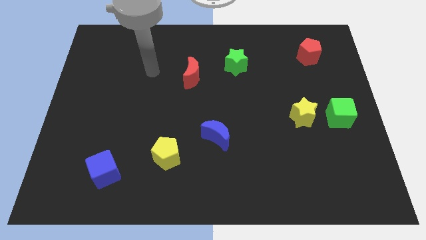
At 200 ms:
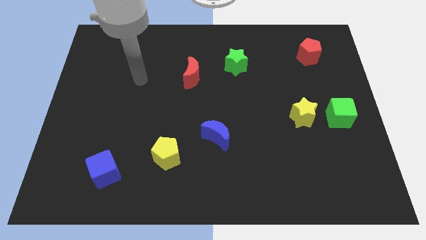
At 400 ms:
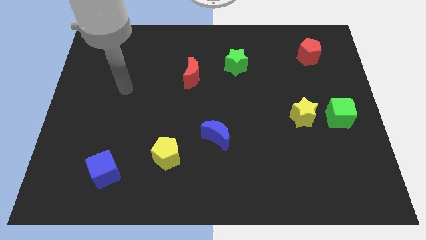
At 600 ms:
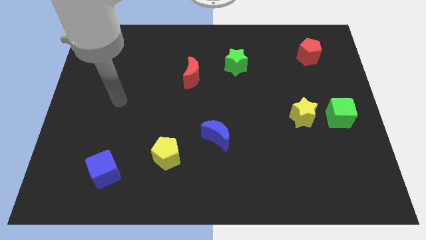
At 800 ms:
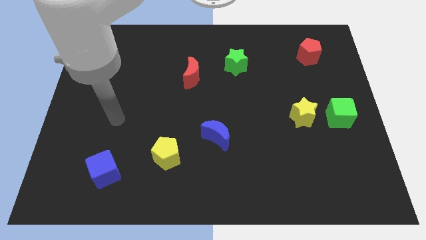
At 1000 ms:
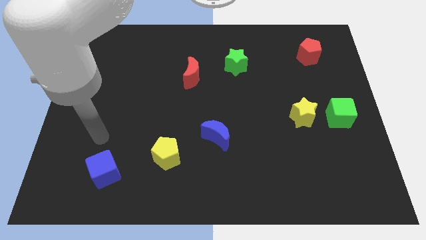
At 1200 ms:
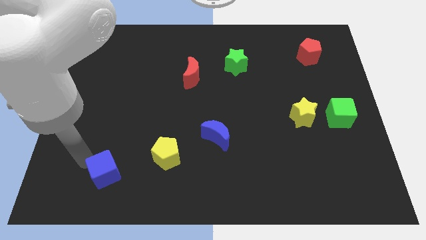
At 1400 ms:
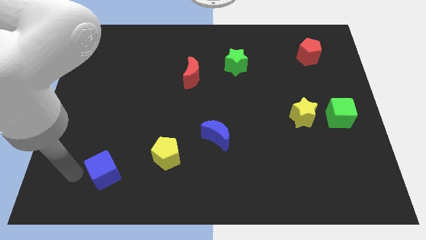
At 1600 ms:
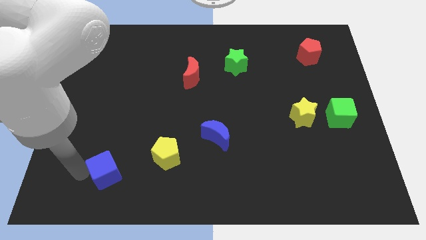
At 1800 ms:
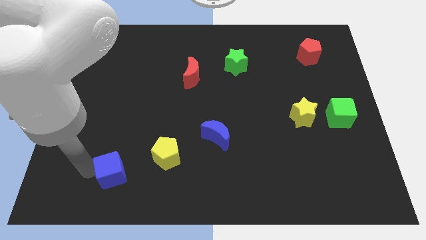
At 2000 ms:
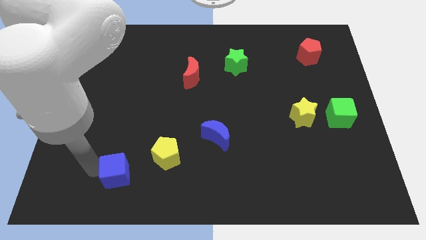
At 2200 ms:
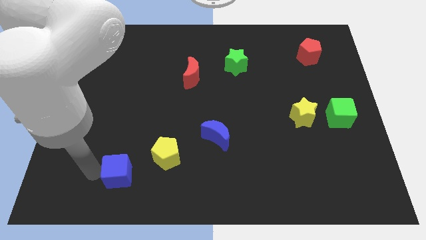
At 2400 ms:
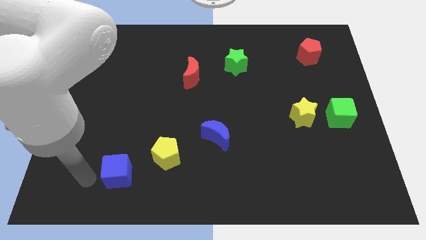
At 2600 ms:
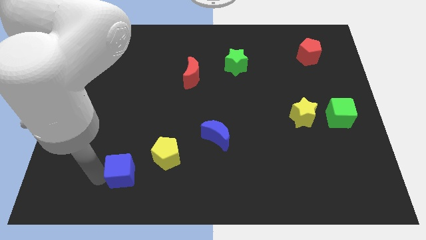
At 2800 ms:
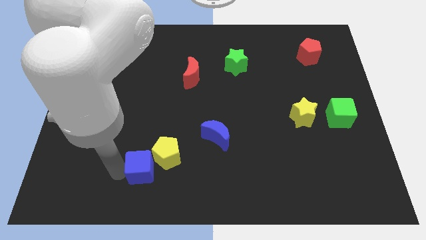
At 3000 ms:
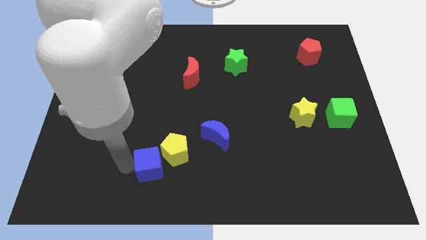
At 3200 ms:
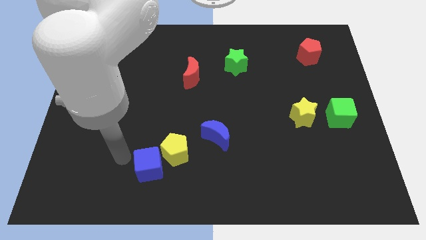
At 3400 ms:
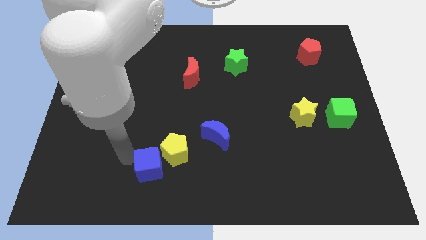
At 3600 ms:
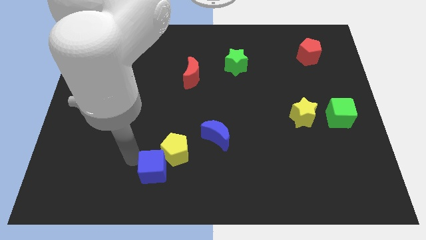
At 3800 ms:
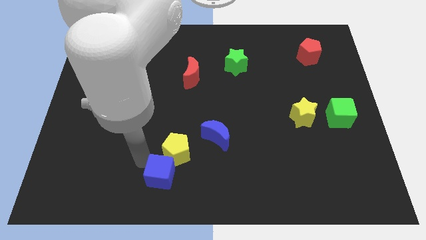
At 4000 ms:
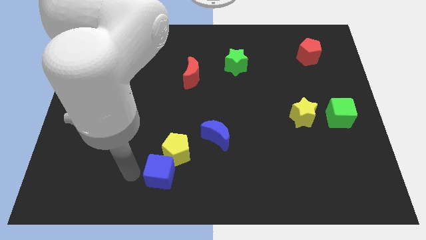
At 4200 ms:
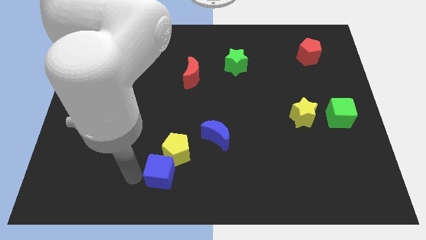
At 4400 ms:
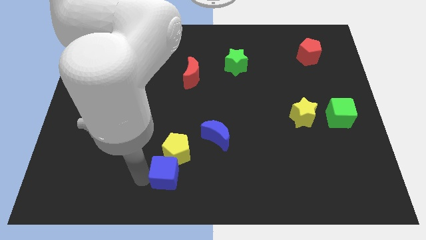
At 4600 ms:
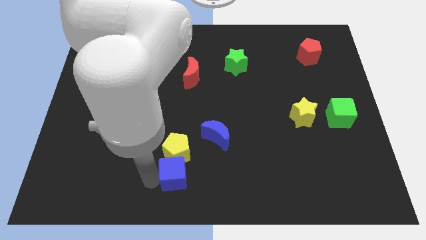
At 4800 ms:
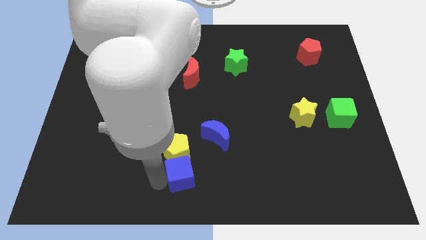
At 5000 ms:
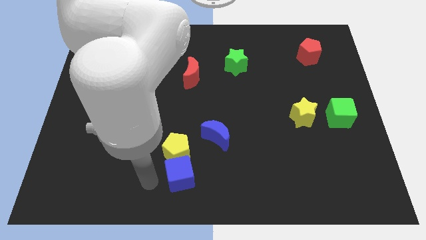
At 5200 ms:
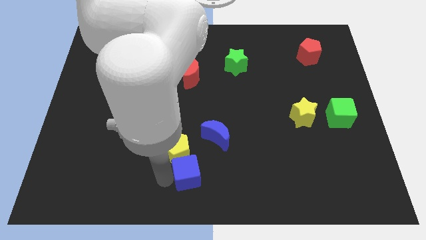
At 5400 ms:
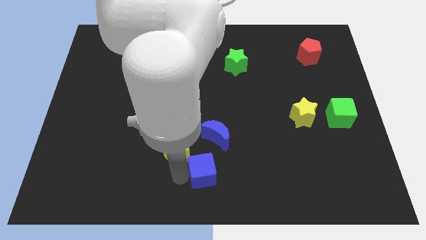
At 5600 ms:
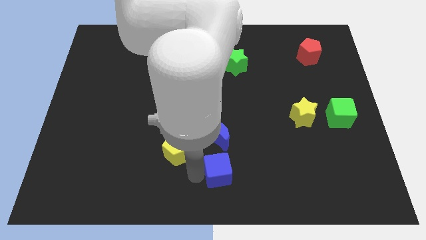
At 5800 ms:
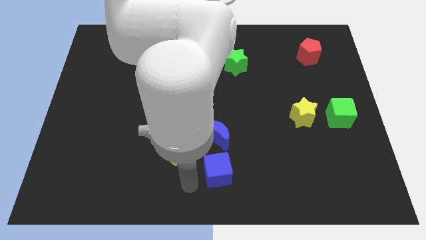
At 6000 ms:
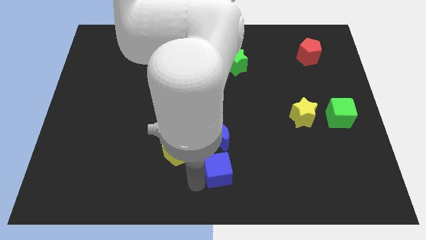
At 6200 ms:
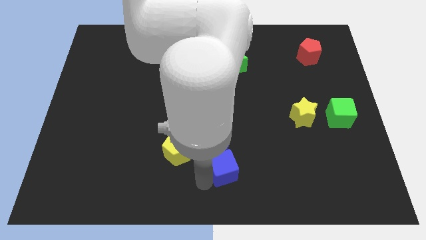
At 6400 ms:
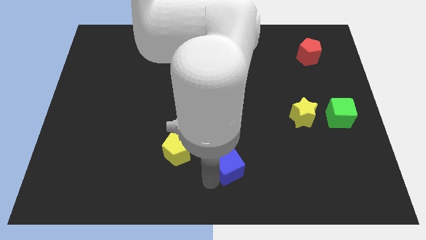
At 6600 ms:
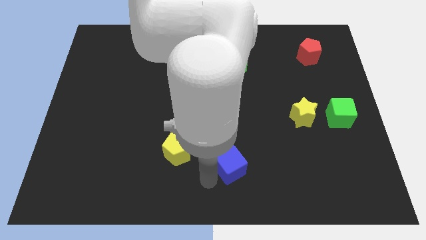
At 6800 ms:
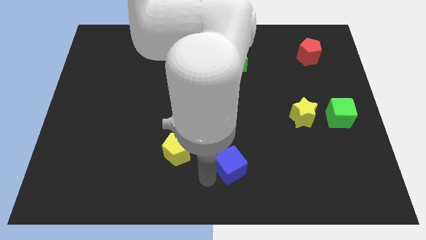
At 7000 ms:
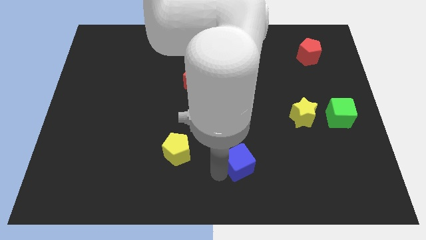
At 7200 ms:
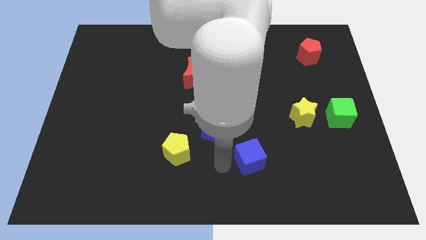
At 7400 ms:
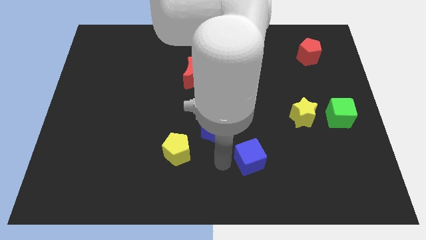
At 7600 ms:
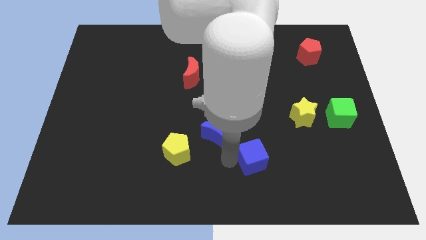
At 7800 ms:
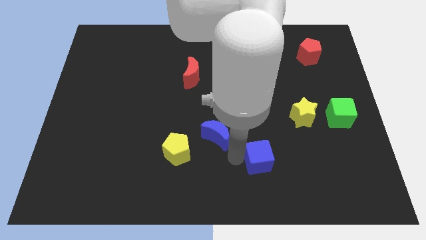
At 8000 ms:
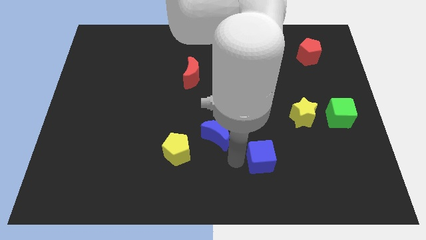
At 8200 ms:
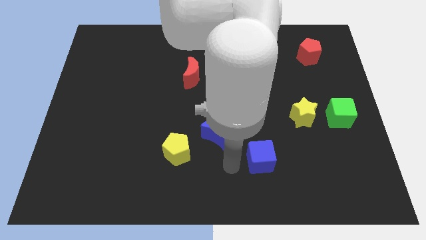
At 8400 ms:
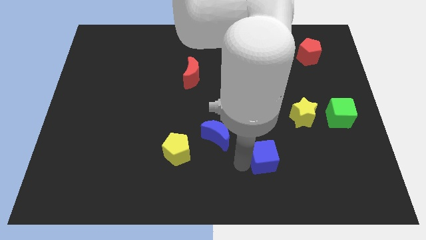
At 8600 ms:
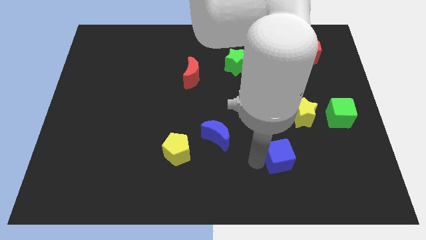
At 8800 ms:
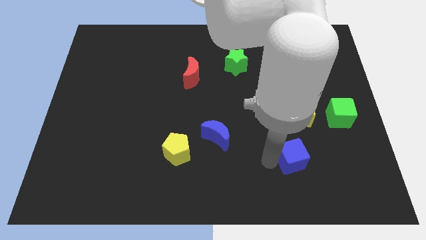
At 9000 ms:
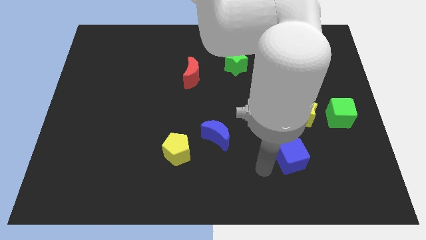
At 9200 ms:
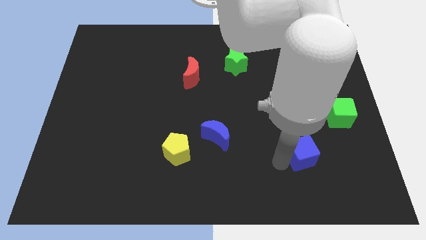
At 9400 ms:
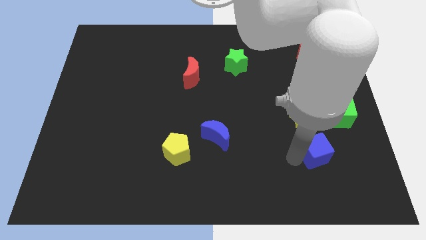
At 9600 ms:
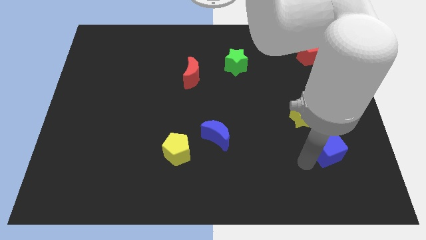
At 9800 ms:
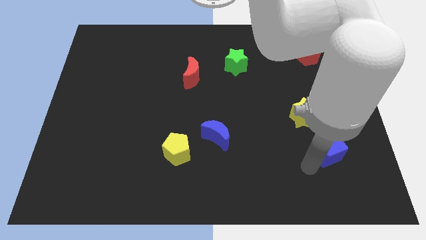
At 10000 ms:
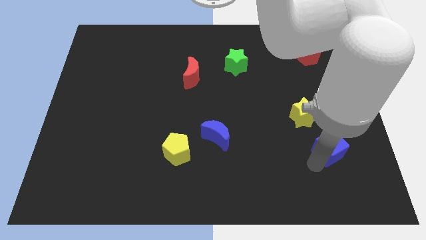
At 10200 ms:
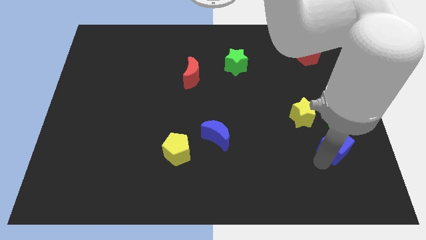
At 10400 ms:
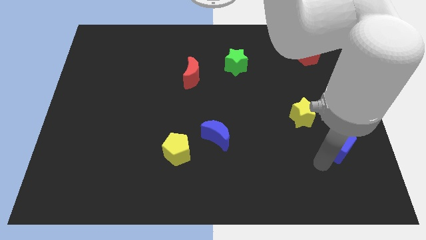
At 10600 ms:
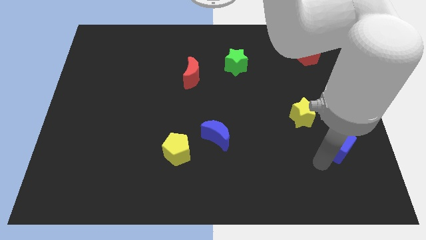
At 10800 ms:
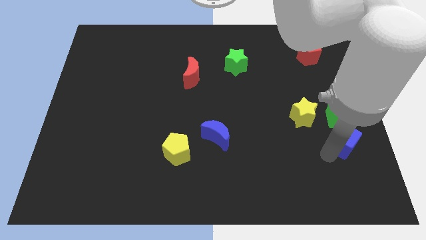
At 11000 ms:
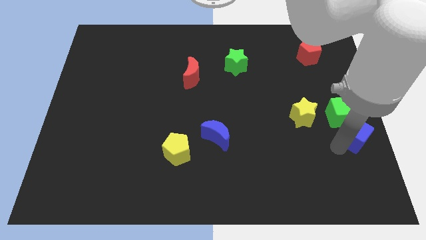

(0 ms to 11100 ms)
push the blue cube to the right side
